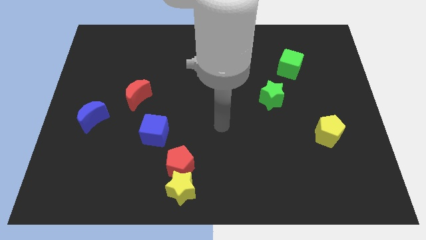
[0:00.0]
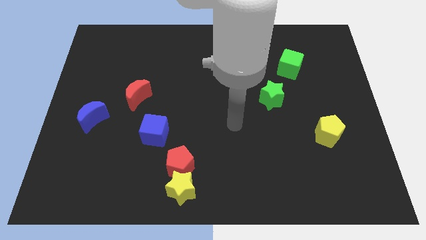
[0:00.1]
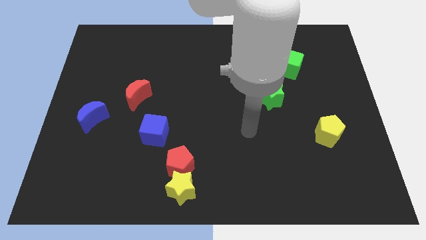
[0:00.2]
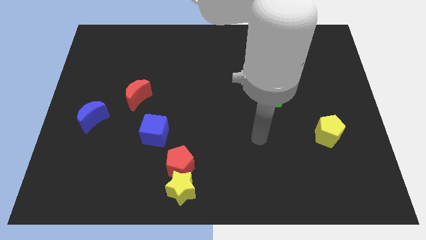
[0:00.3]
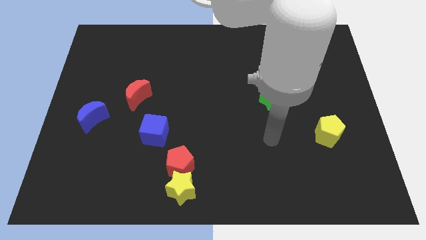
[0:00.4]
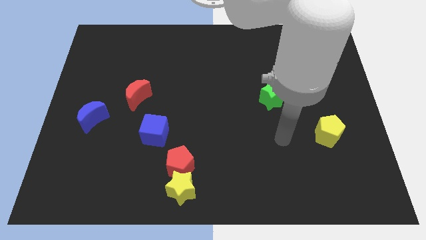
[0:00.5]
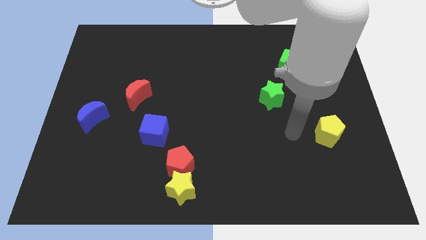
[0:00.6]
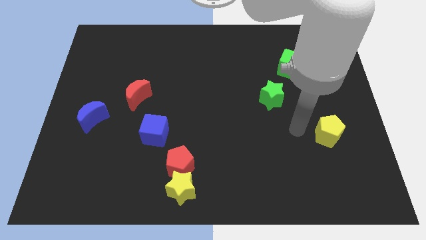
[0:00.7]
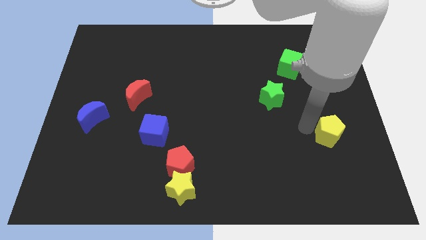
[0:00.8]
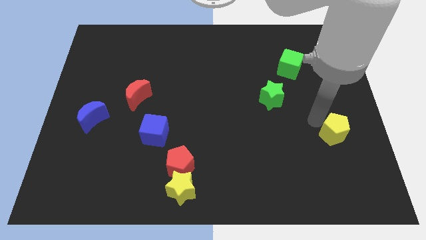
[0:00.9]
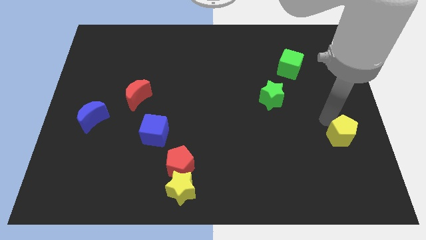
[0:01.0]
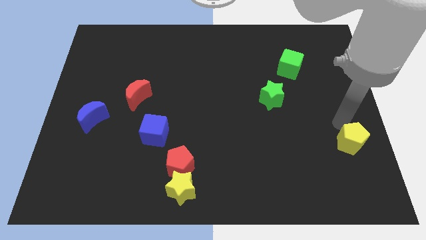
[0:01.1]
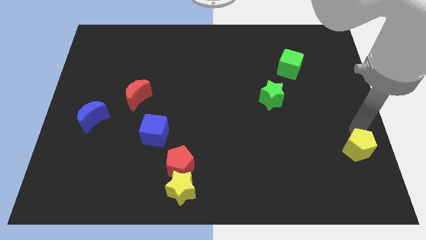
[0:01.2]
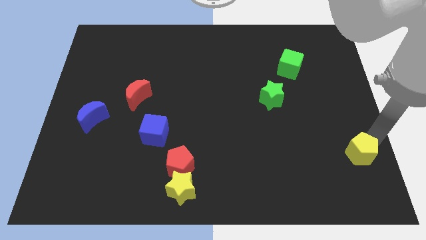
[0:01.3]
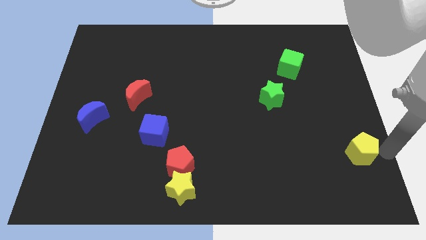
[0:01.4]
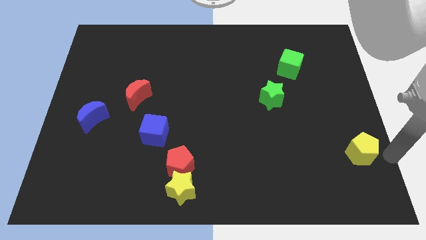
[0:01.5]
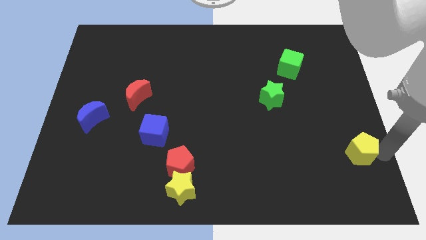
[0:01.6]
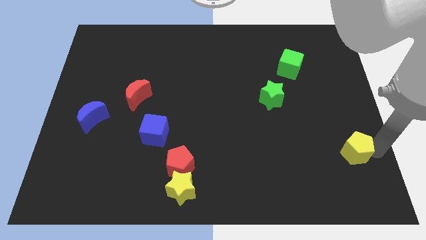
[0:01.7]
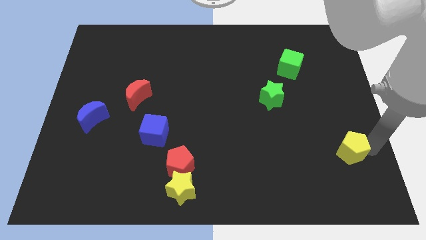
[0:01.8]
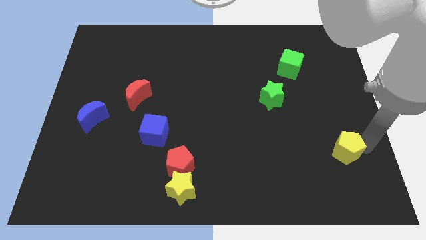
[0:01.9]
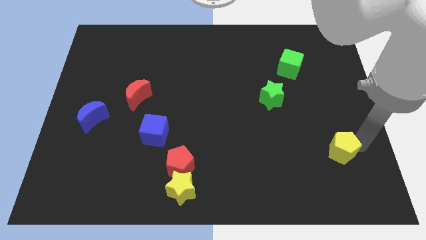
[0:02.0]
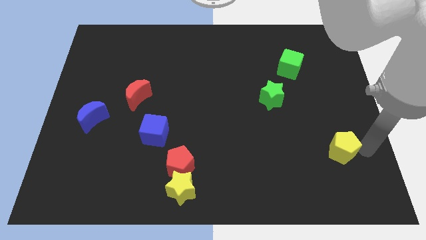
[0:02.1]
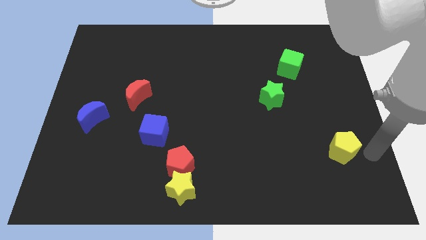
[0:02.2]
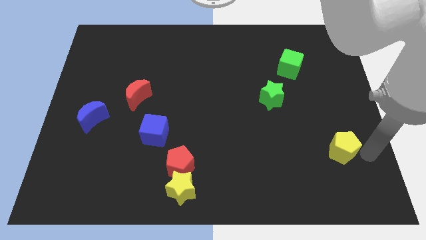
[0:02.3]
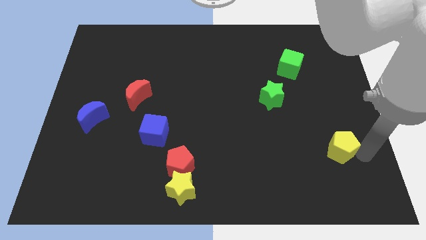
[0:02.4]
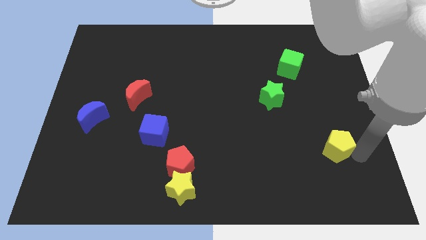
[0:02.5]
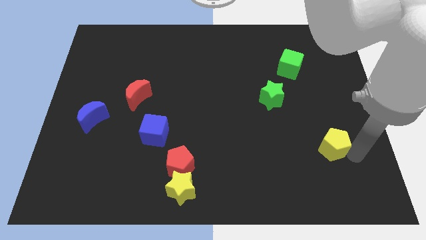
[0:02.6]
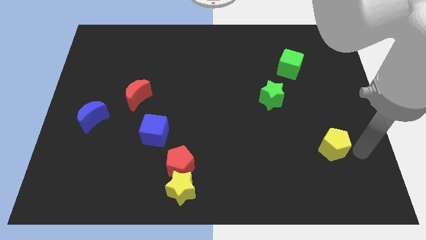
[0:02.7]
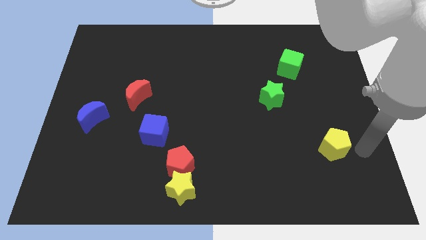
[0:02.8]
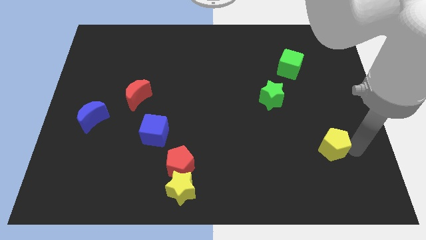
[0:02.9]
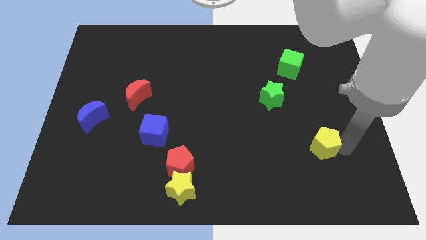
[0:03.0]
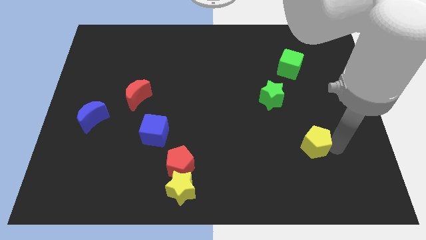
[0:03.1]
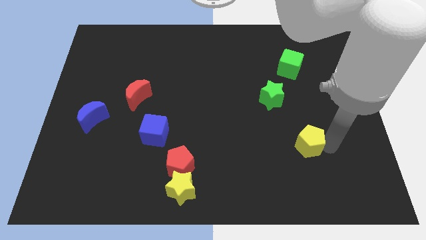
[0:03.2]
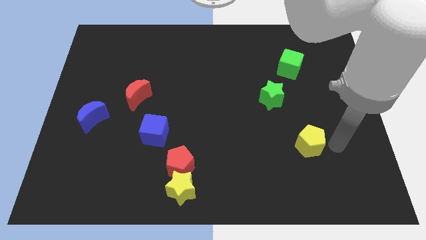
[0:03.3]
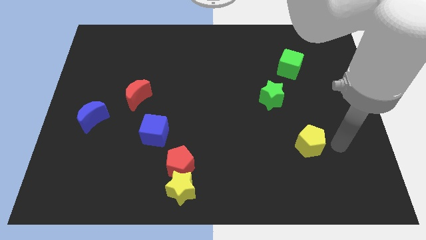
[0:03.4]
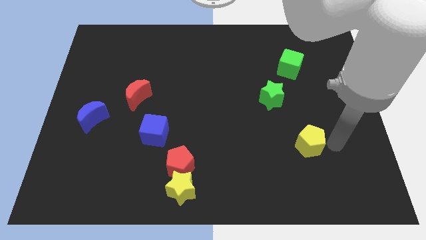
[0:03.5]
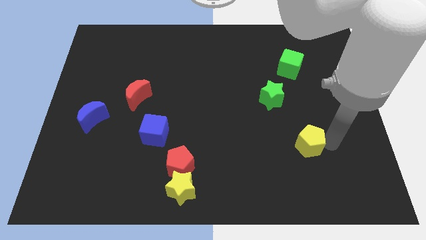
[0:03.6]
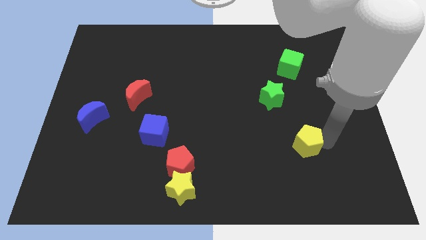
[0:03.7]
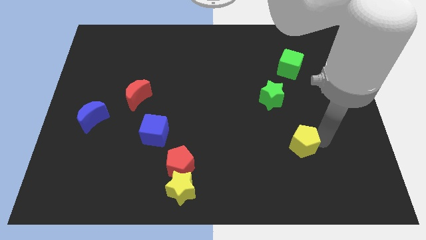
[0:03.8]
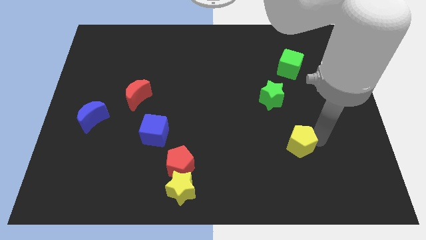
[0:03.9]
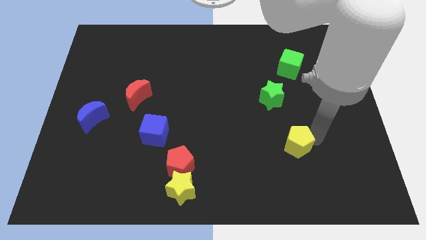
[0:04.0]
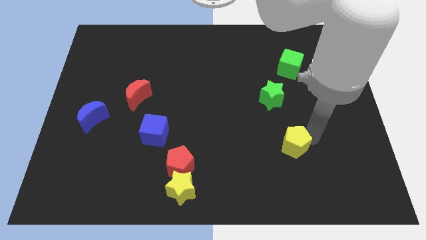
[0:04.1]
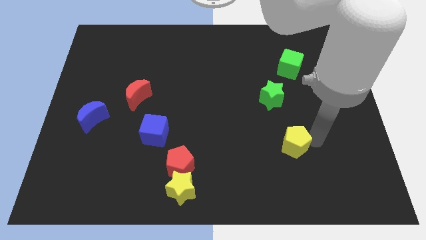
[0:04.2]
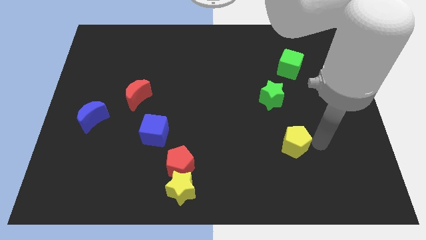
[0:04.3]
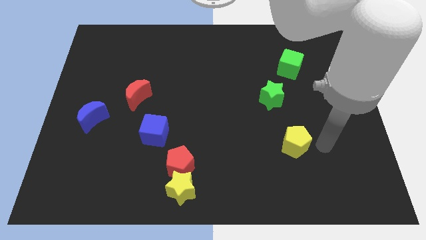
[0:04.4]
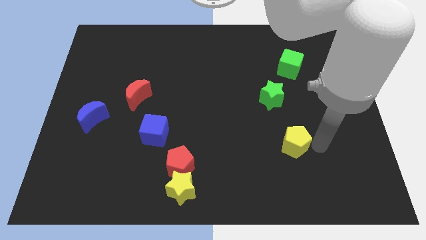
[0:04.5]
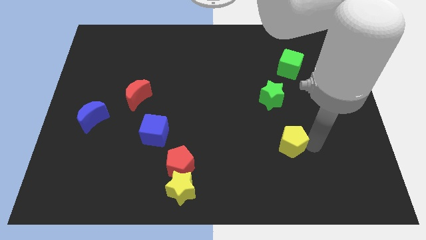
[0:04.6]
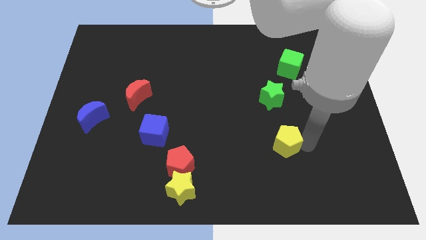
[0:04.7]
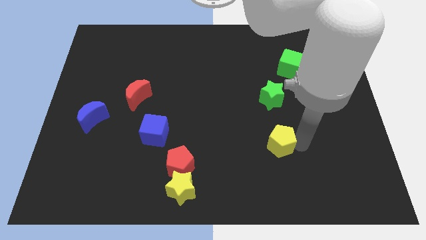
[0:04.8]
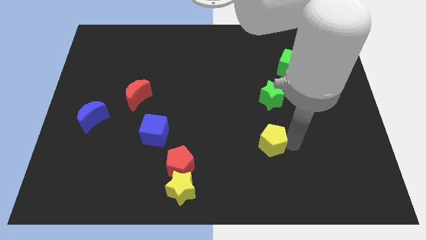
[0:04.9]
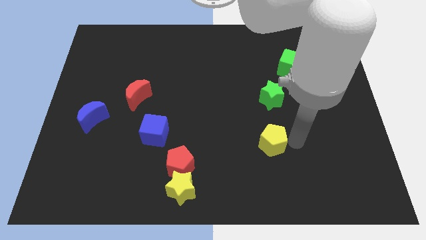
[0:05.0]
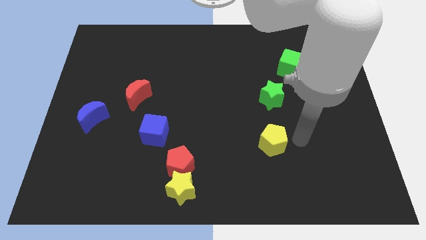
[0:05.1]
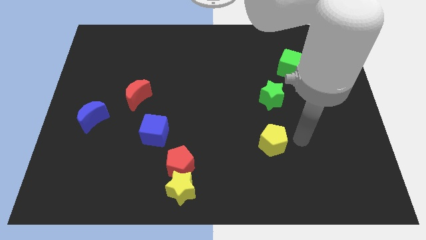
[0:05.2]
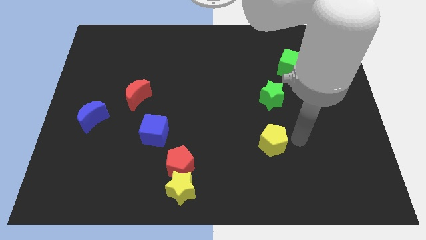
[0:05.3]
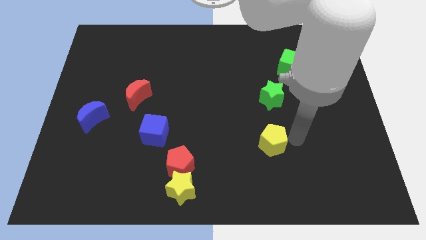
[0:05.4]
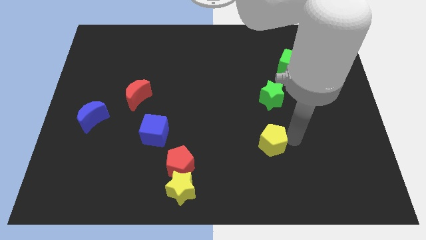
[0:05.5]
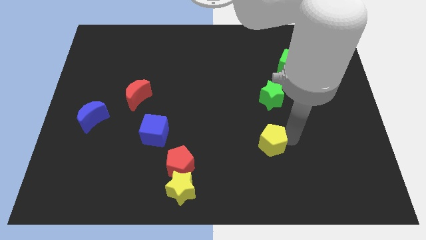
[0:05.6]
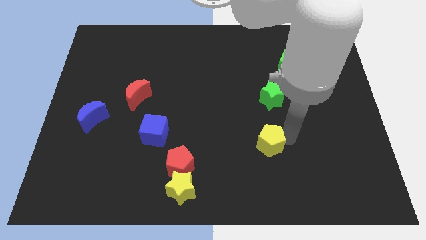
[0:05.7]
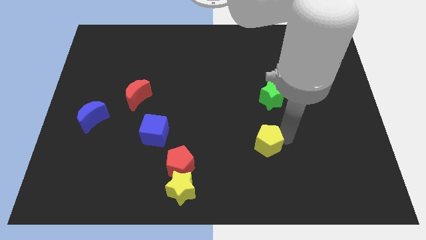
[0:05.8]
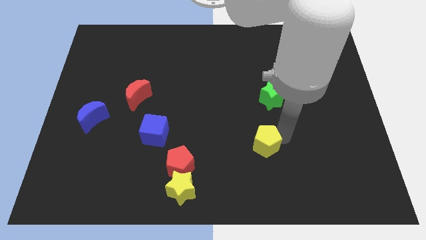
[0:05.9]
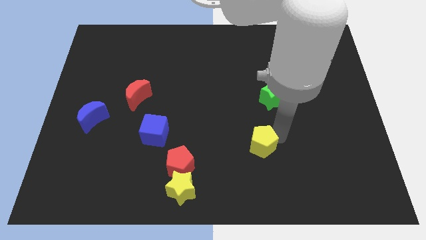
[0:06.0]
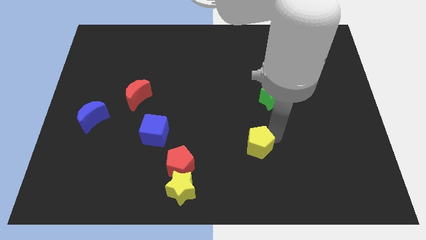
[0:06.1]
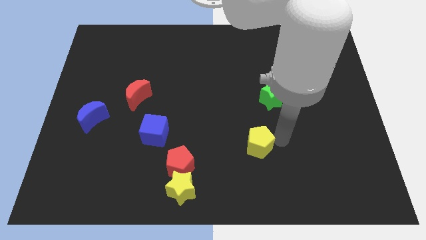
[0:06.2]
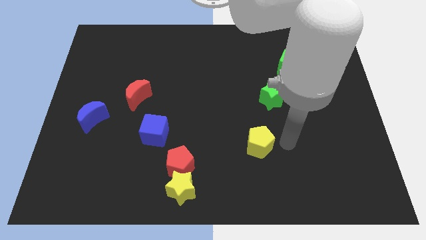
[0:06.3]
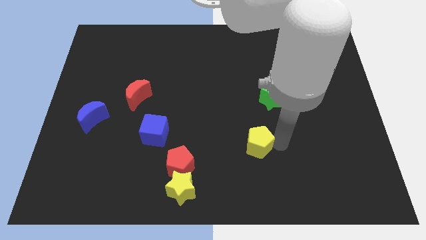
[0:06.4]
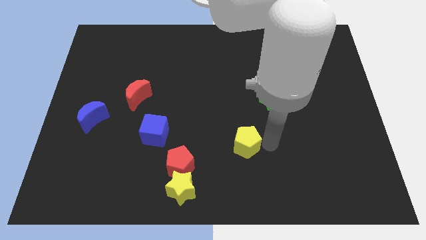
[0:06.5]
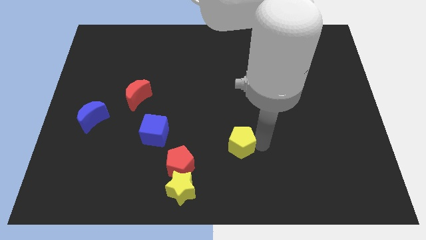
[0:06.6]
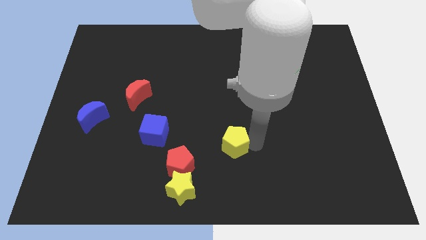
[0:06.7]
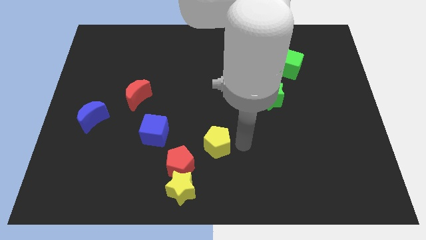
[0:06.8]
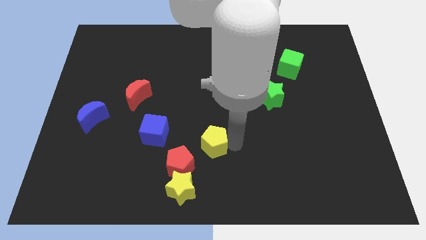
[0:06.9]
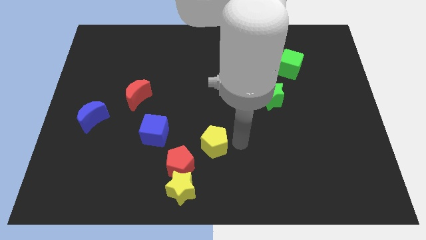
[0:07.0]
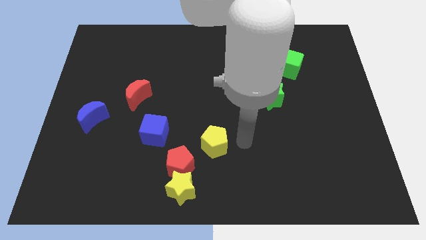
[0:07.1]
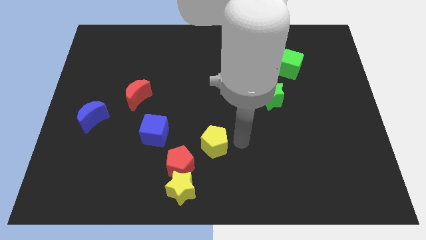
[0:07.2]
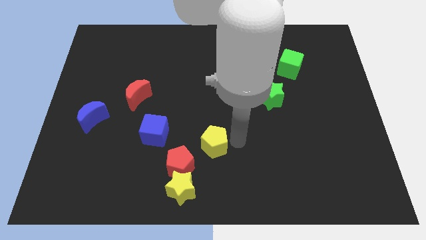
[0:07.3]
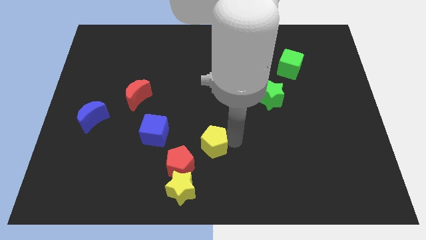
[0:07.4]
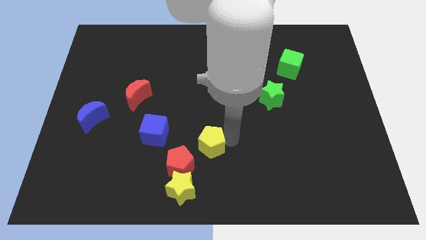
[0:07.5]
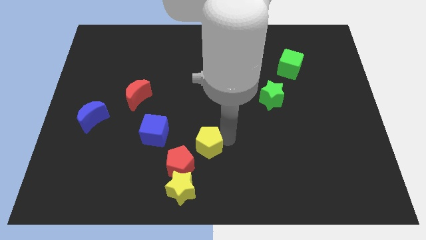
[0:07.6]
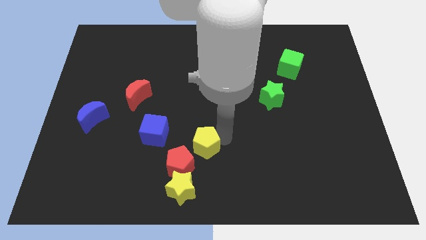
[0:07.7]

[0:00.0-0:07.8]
put the yellow pentagon to the top side of the yellow star
